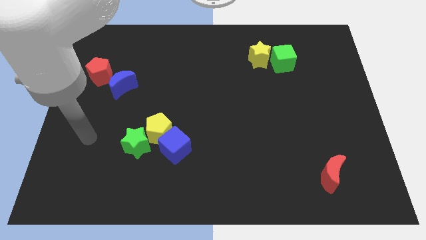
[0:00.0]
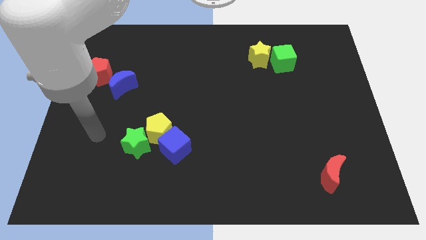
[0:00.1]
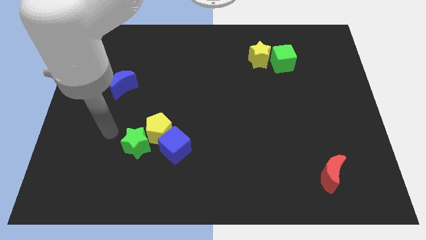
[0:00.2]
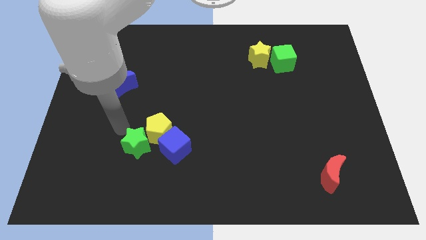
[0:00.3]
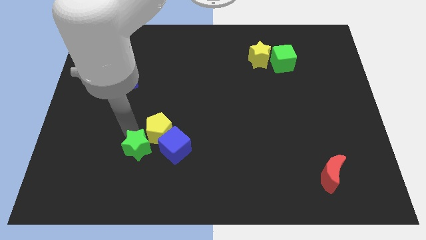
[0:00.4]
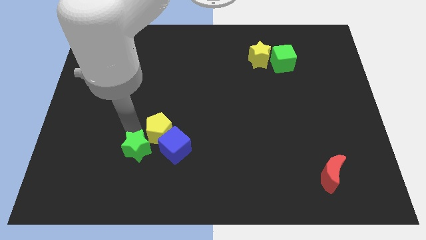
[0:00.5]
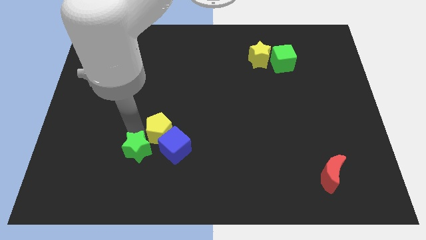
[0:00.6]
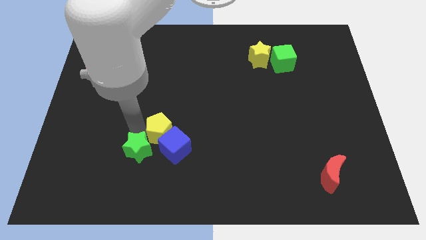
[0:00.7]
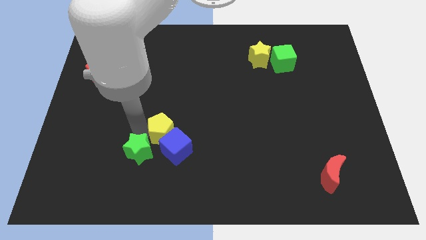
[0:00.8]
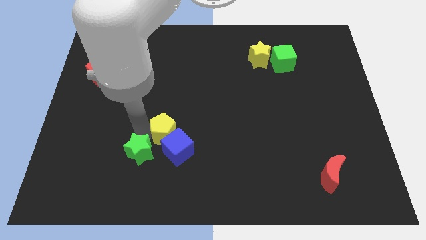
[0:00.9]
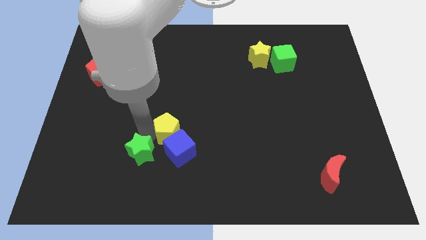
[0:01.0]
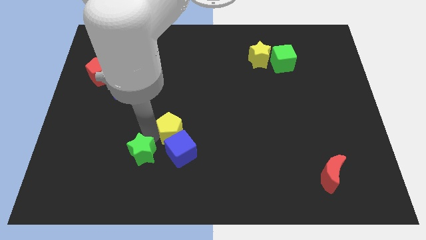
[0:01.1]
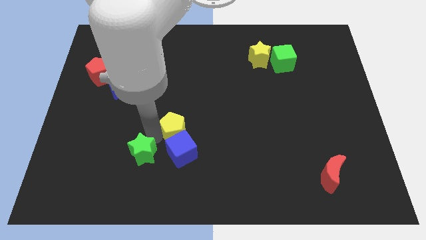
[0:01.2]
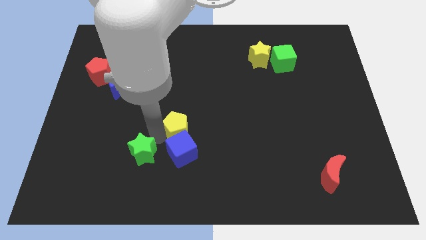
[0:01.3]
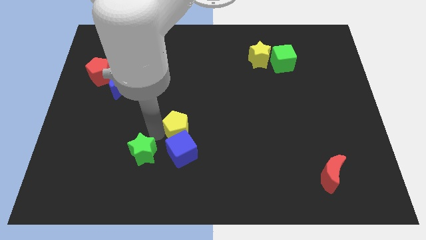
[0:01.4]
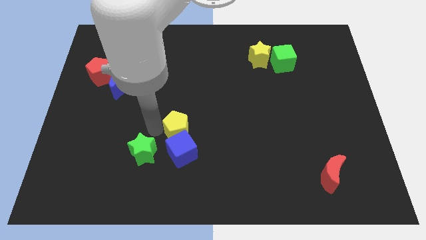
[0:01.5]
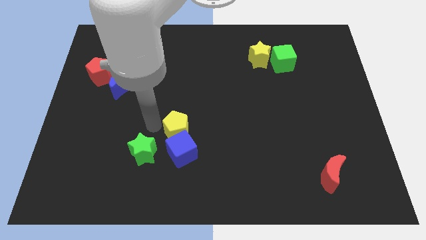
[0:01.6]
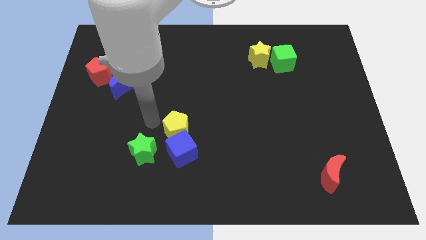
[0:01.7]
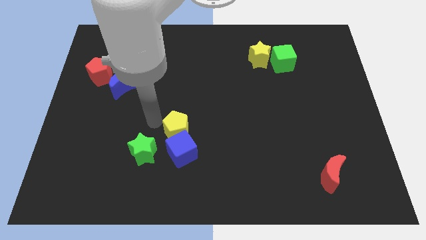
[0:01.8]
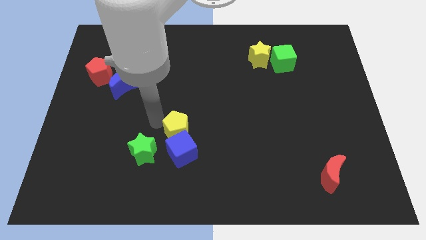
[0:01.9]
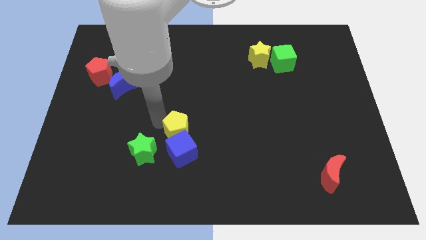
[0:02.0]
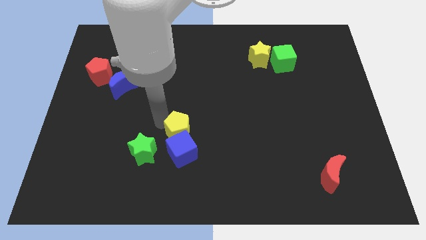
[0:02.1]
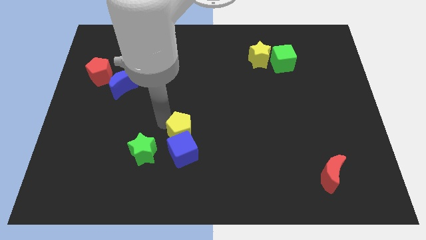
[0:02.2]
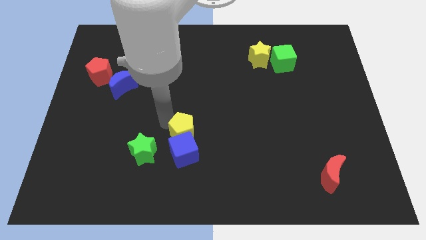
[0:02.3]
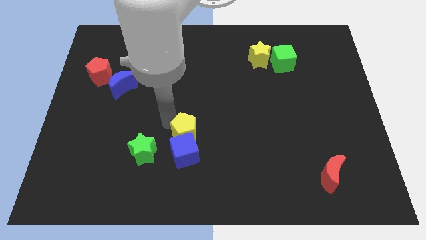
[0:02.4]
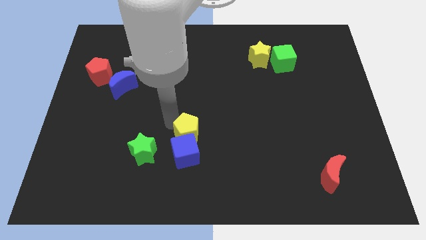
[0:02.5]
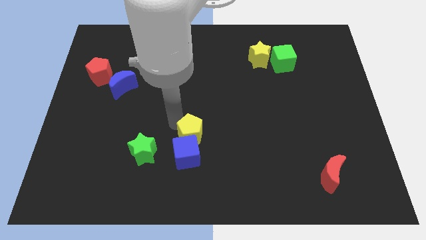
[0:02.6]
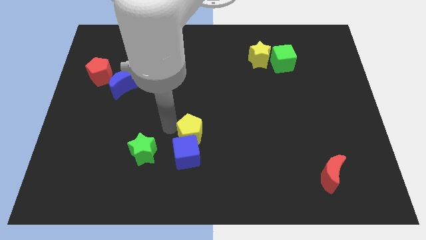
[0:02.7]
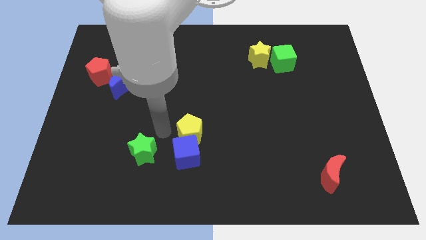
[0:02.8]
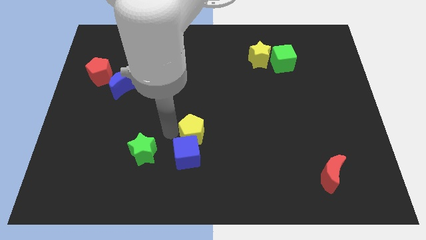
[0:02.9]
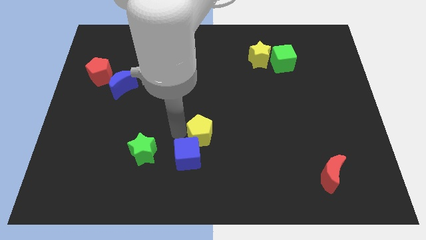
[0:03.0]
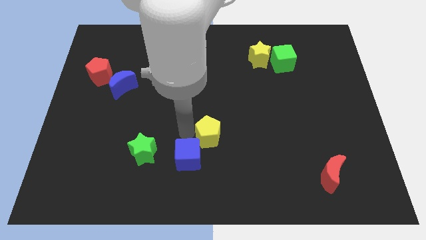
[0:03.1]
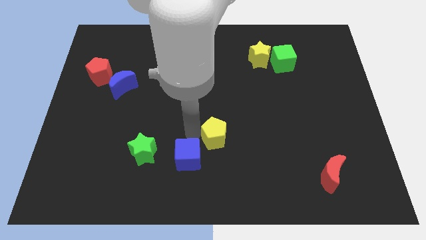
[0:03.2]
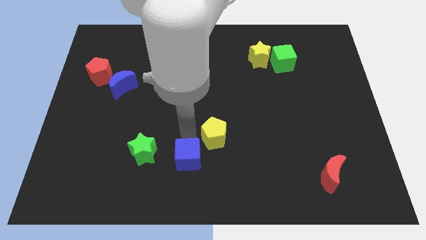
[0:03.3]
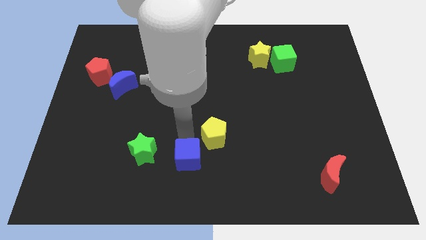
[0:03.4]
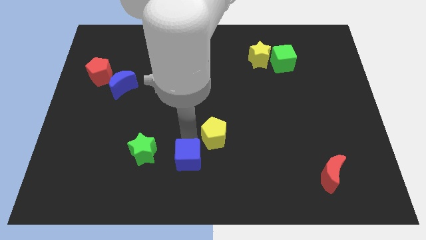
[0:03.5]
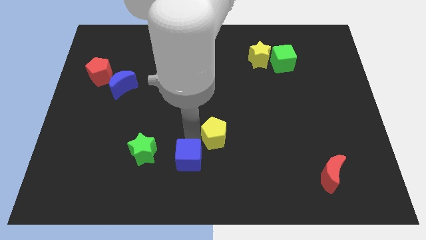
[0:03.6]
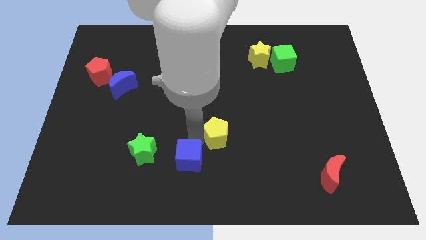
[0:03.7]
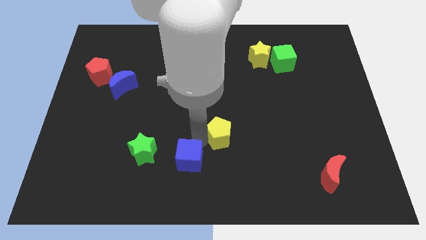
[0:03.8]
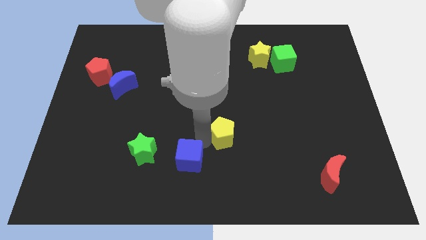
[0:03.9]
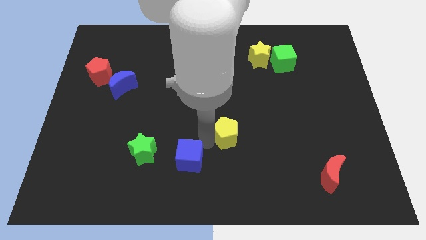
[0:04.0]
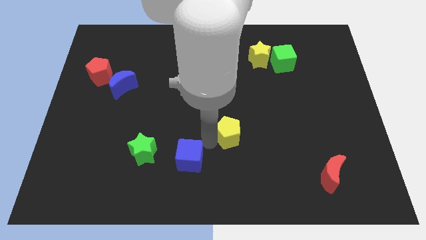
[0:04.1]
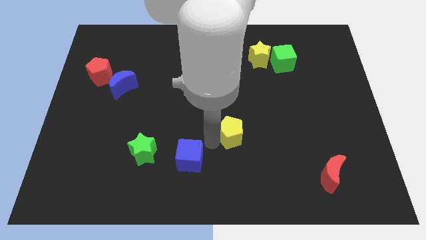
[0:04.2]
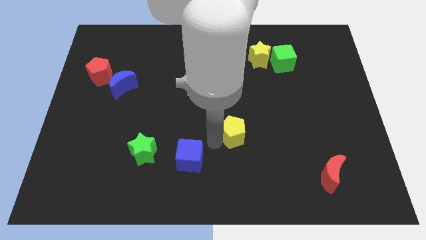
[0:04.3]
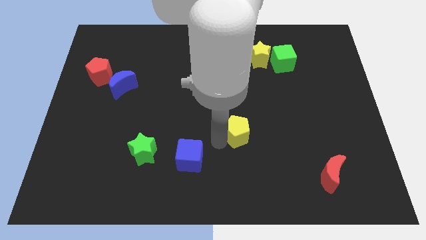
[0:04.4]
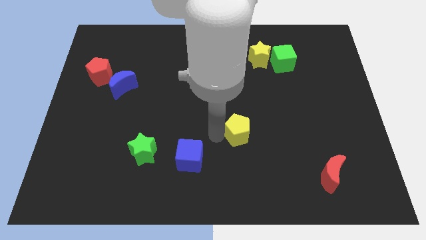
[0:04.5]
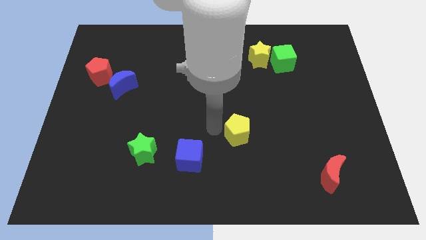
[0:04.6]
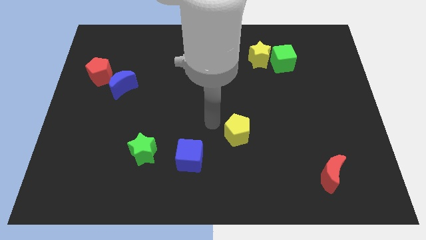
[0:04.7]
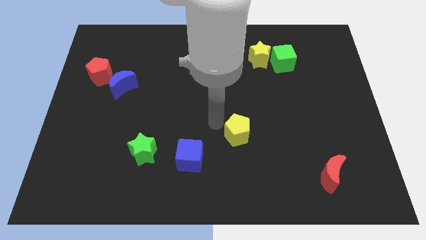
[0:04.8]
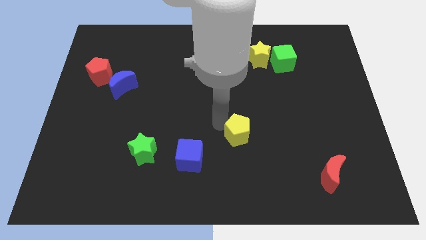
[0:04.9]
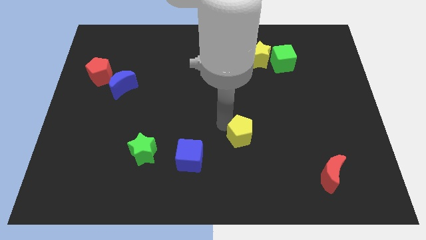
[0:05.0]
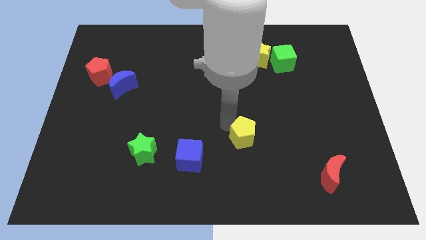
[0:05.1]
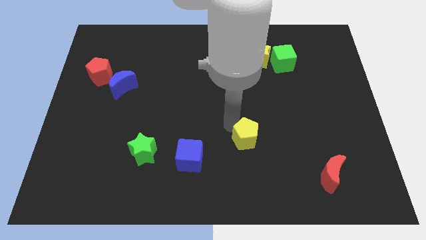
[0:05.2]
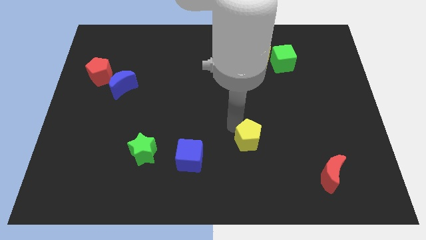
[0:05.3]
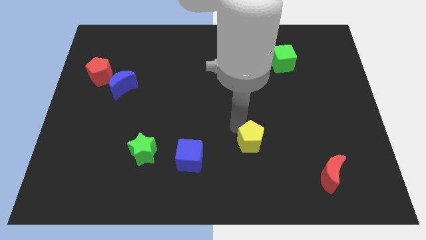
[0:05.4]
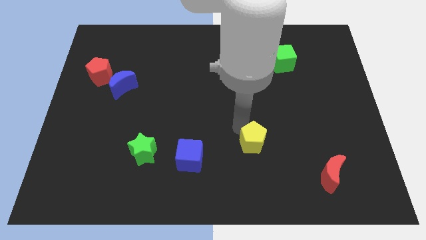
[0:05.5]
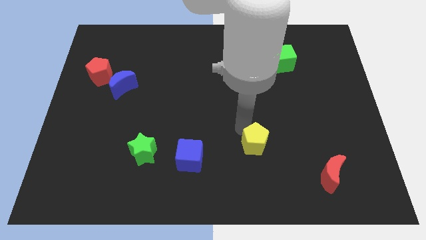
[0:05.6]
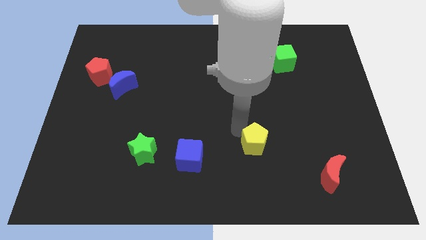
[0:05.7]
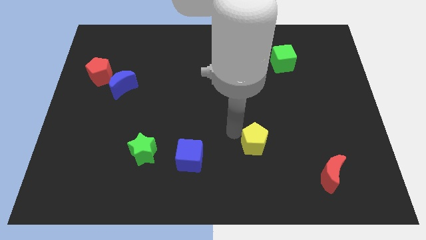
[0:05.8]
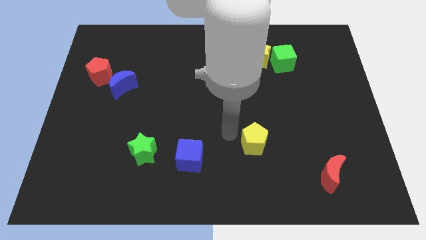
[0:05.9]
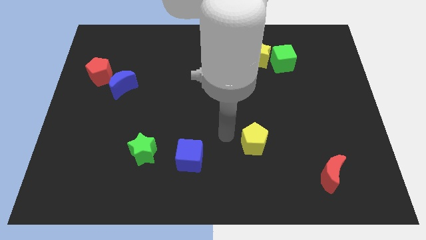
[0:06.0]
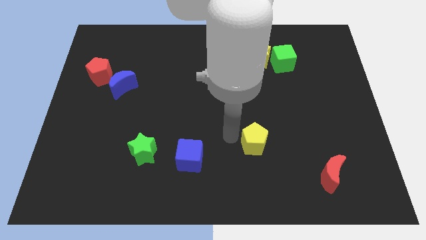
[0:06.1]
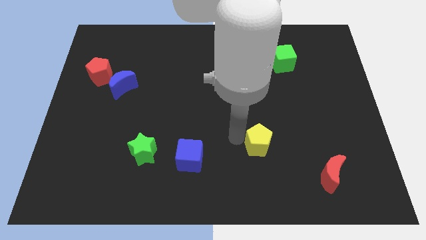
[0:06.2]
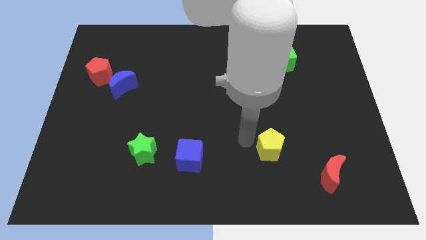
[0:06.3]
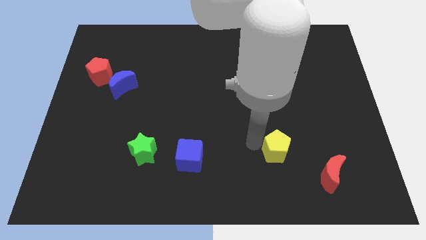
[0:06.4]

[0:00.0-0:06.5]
move the yellow pentagon to the top left of the red moon

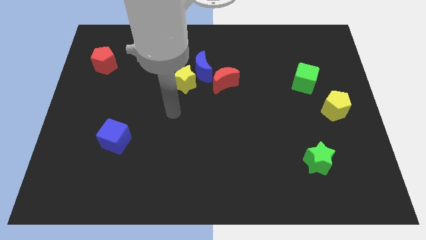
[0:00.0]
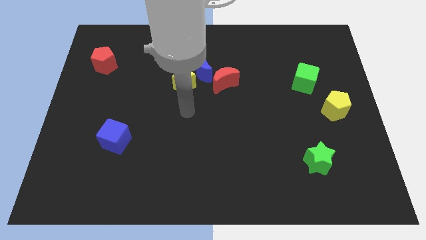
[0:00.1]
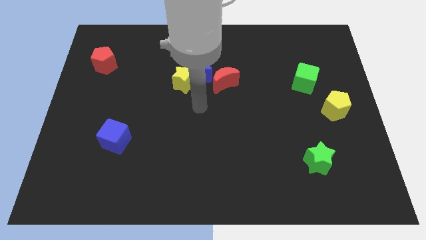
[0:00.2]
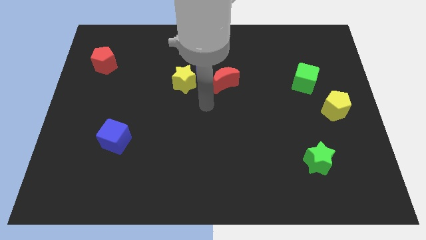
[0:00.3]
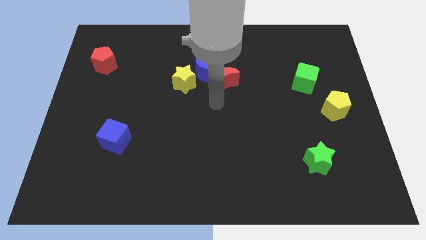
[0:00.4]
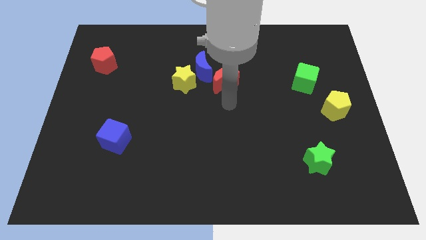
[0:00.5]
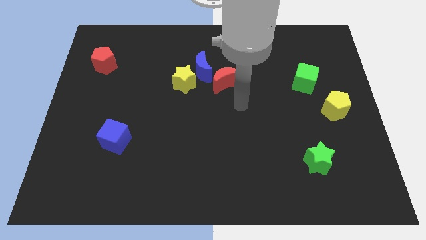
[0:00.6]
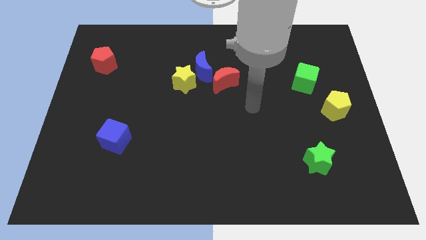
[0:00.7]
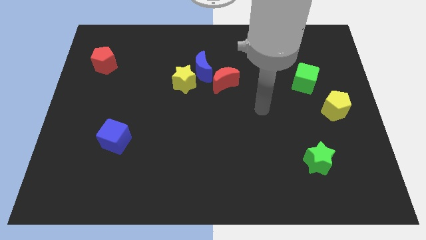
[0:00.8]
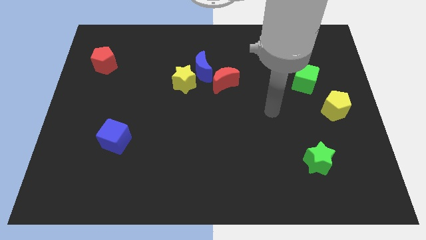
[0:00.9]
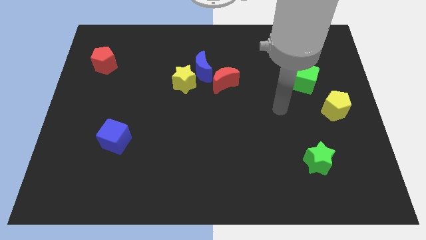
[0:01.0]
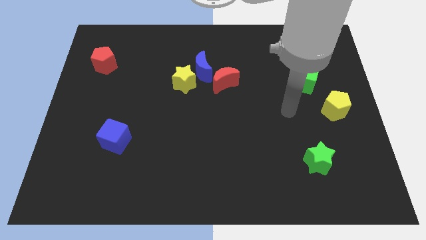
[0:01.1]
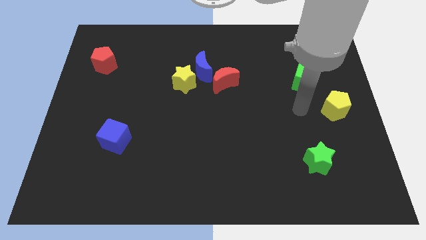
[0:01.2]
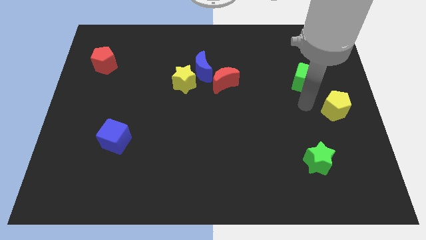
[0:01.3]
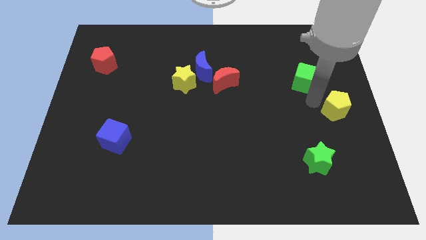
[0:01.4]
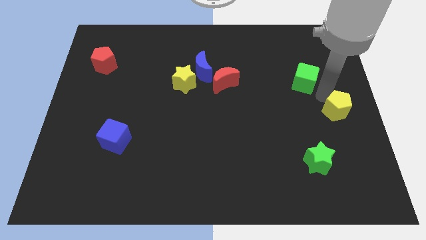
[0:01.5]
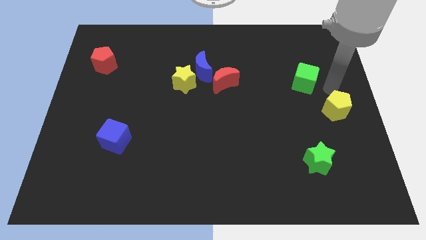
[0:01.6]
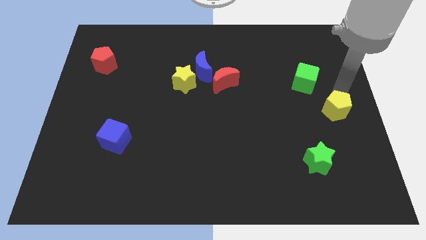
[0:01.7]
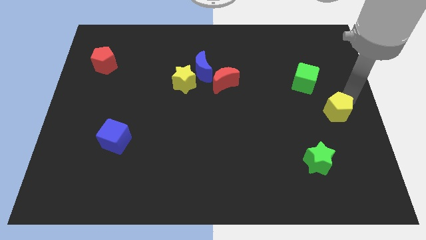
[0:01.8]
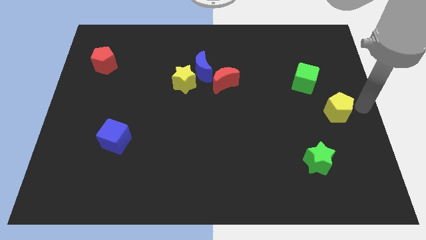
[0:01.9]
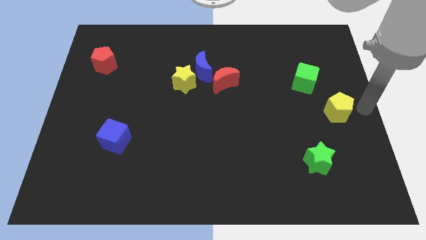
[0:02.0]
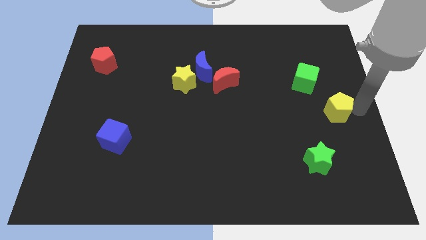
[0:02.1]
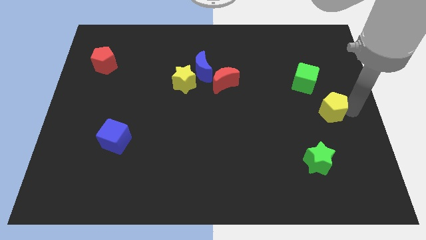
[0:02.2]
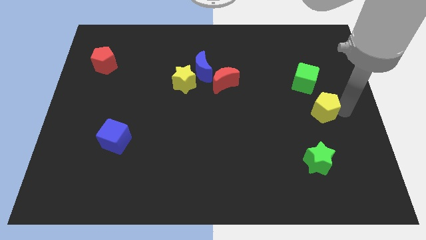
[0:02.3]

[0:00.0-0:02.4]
move the yellow pentagon to the bottom side of the green cube
